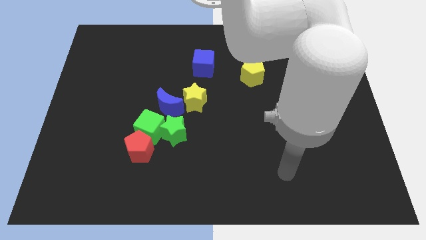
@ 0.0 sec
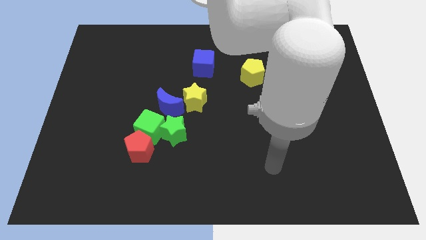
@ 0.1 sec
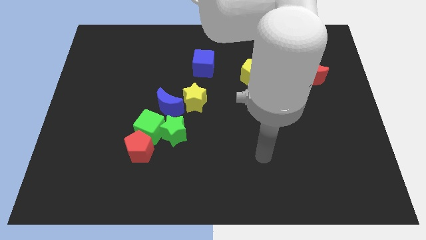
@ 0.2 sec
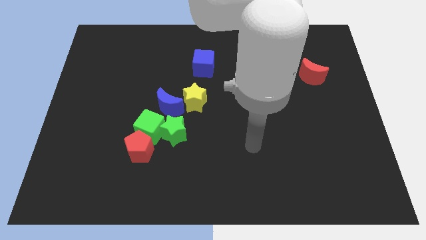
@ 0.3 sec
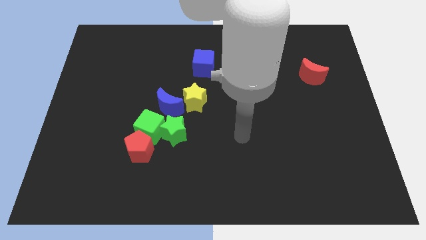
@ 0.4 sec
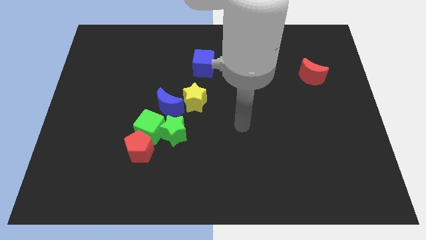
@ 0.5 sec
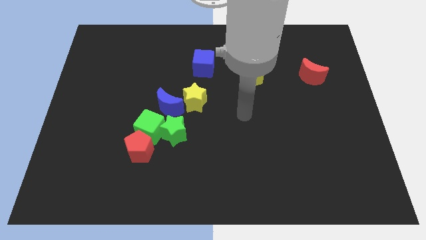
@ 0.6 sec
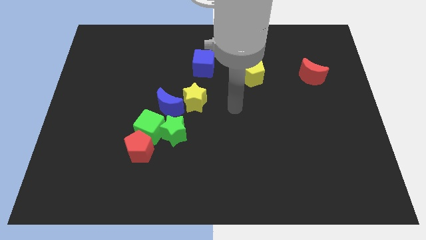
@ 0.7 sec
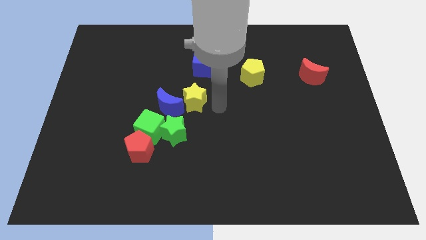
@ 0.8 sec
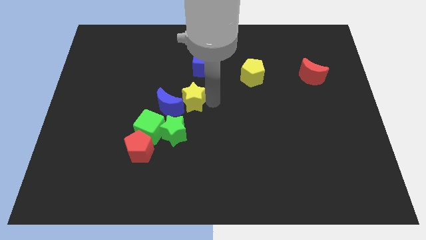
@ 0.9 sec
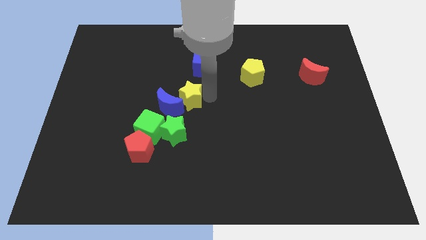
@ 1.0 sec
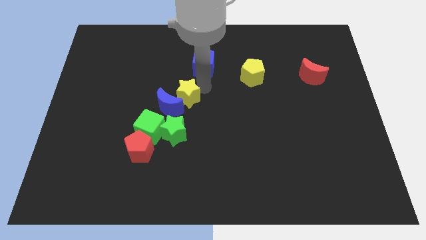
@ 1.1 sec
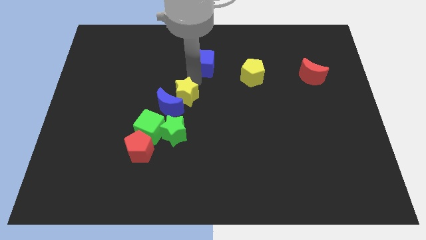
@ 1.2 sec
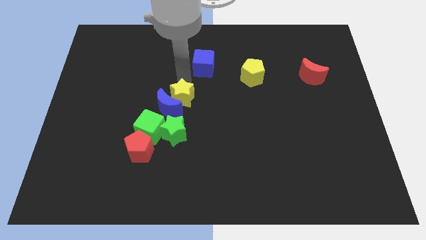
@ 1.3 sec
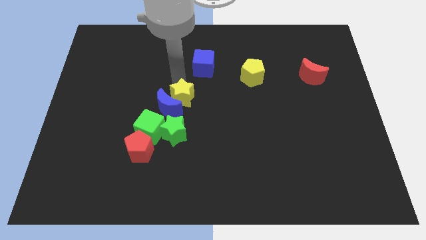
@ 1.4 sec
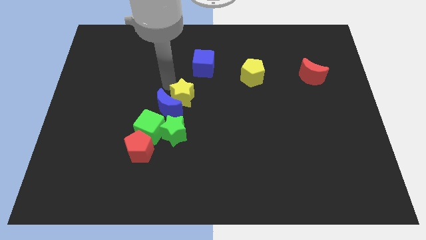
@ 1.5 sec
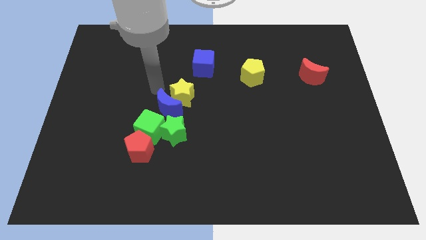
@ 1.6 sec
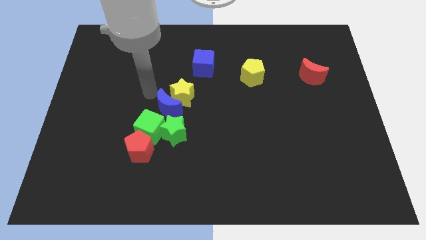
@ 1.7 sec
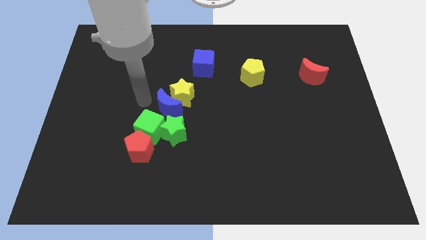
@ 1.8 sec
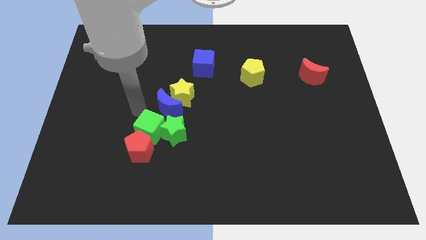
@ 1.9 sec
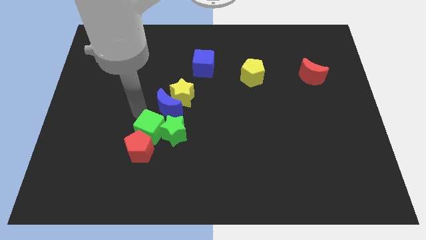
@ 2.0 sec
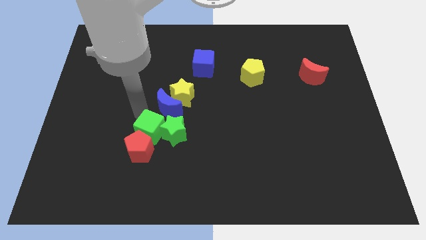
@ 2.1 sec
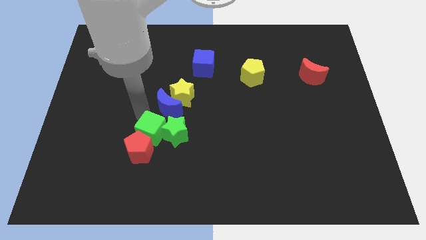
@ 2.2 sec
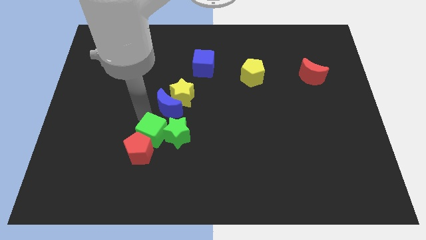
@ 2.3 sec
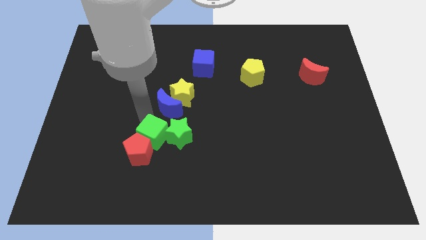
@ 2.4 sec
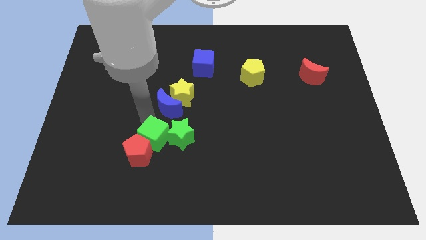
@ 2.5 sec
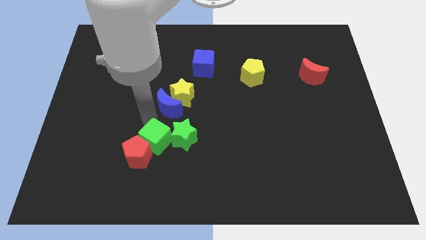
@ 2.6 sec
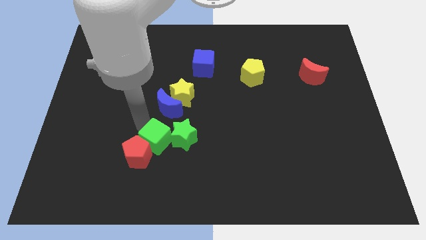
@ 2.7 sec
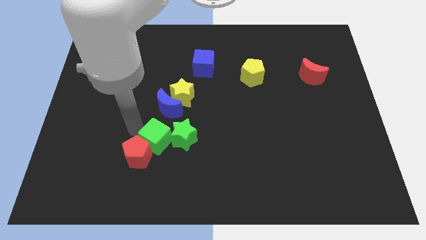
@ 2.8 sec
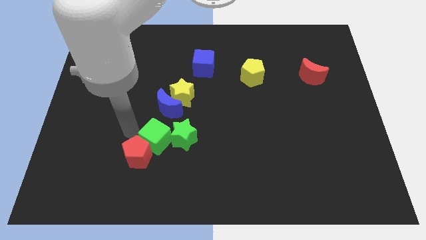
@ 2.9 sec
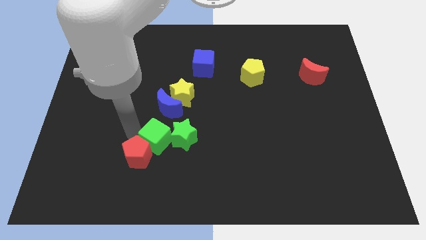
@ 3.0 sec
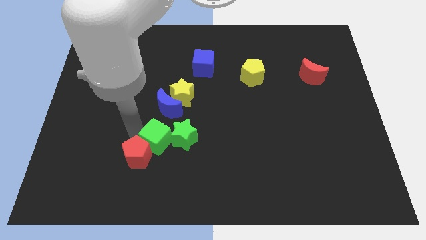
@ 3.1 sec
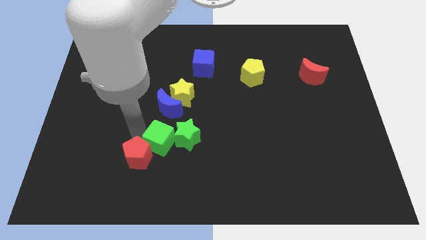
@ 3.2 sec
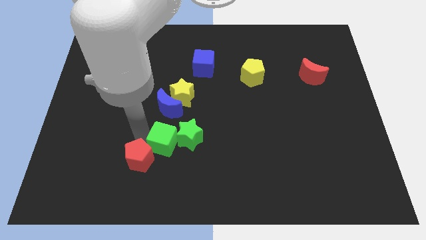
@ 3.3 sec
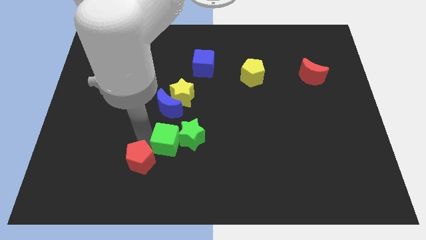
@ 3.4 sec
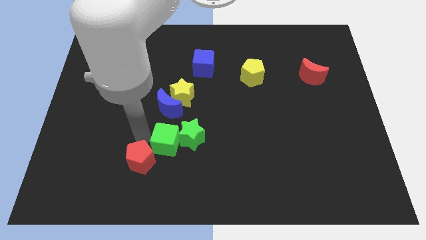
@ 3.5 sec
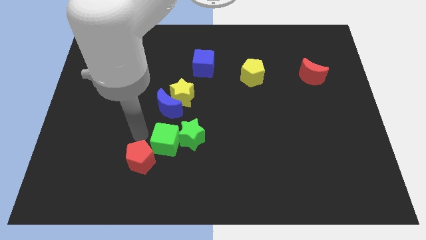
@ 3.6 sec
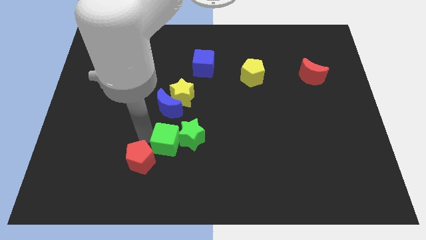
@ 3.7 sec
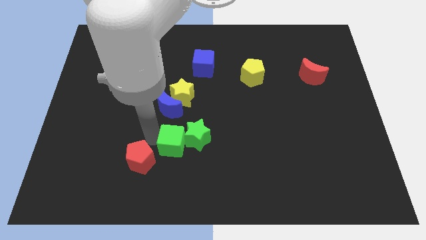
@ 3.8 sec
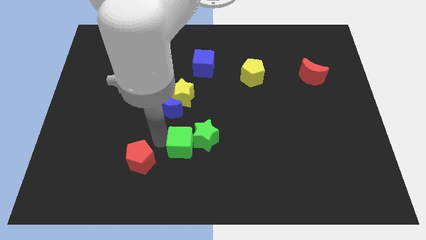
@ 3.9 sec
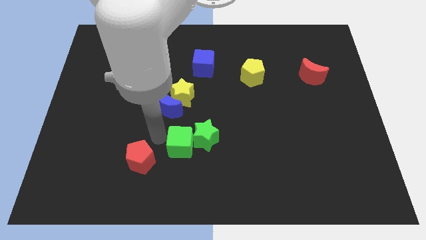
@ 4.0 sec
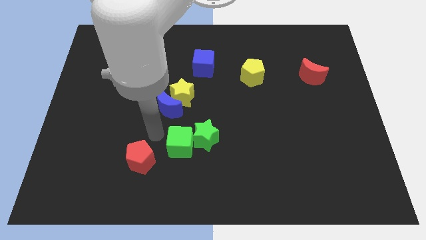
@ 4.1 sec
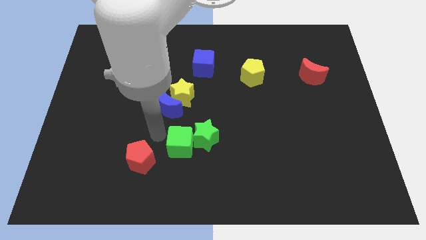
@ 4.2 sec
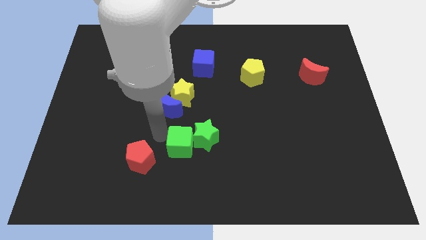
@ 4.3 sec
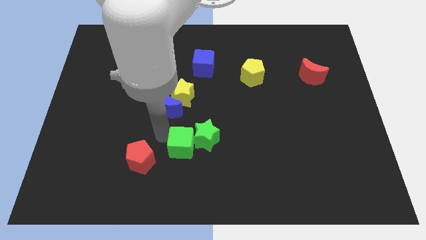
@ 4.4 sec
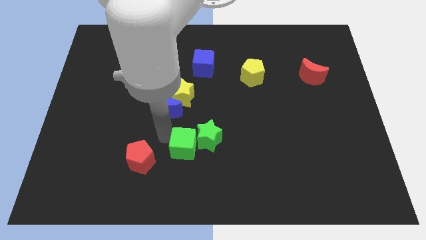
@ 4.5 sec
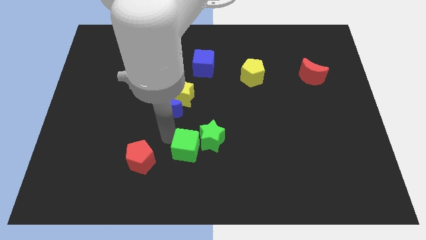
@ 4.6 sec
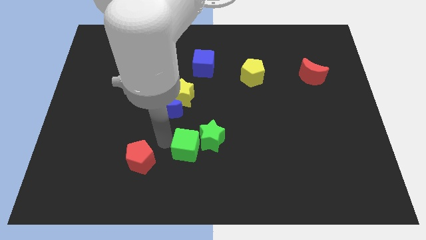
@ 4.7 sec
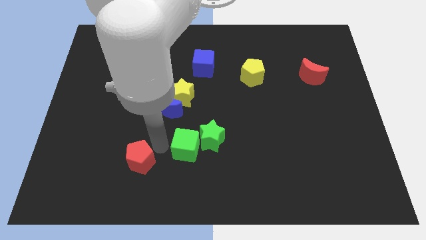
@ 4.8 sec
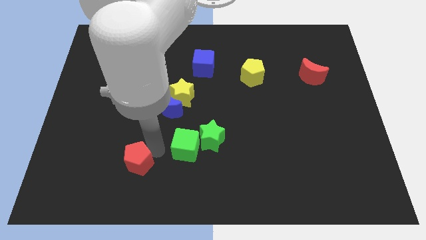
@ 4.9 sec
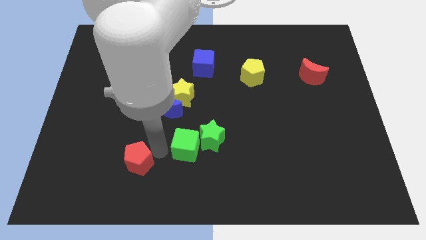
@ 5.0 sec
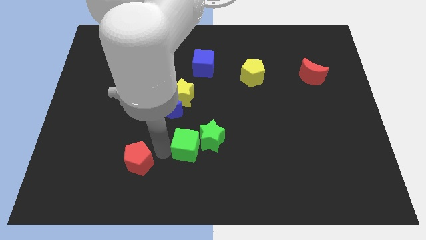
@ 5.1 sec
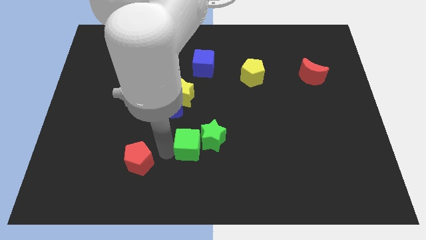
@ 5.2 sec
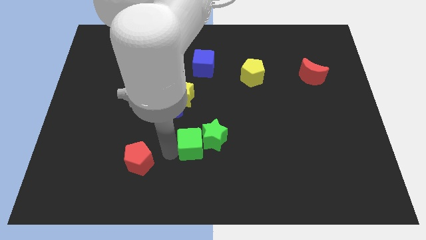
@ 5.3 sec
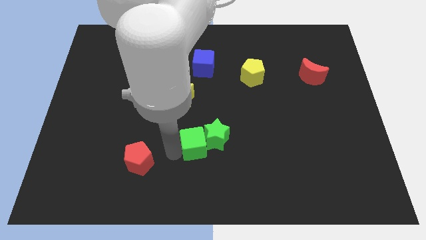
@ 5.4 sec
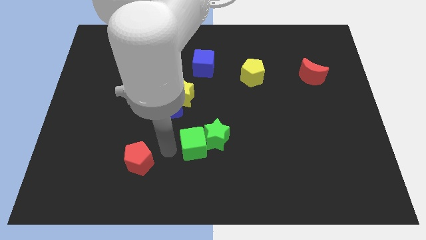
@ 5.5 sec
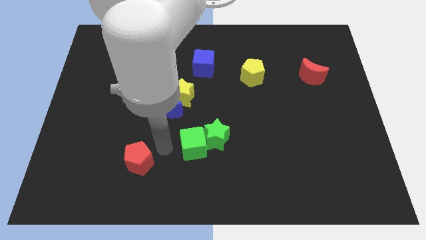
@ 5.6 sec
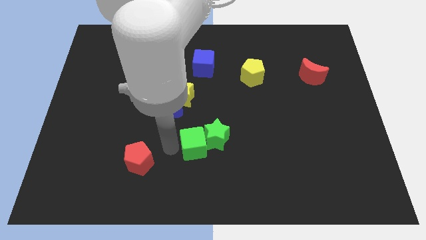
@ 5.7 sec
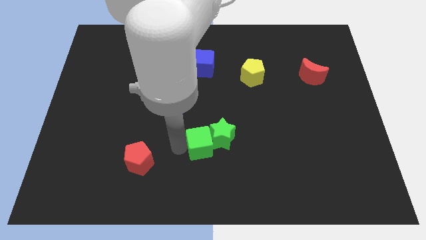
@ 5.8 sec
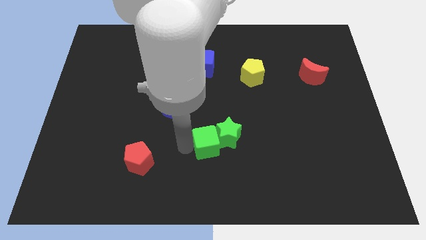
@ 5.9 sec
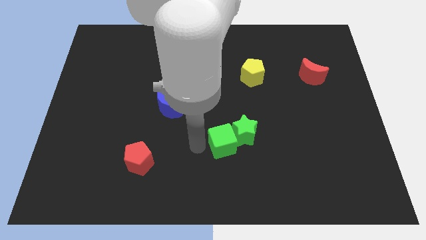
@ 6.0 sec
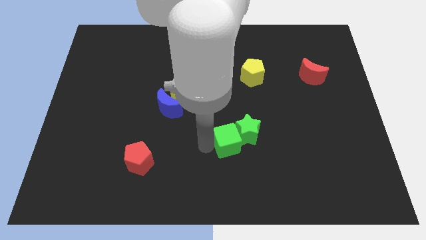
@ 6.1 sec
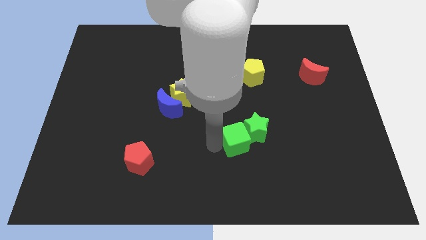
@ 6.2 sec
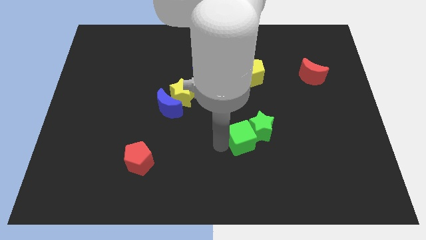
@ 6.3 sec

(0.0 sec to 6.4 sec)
push the green cube right

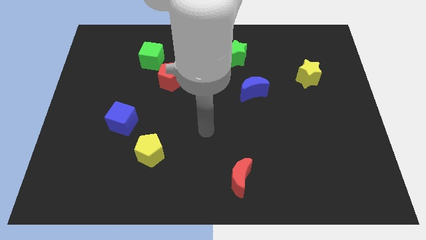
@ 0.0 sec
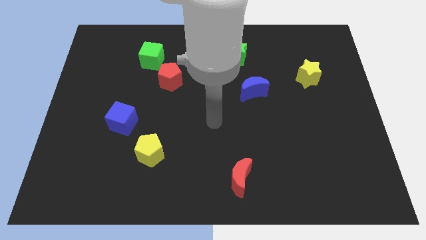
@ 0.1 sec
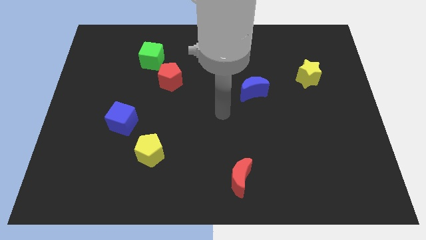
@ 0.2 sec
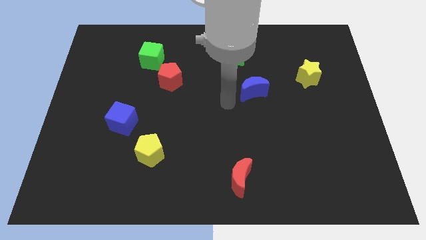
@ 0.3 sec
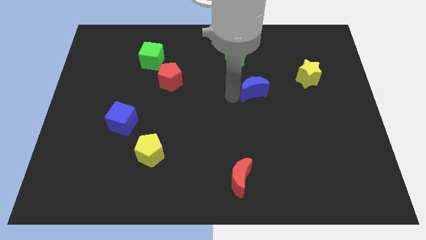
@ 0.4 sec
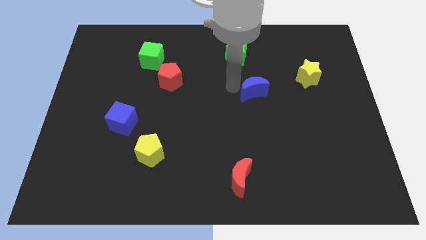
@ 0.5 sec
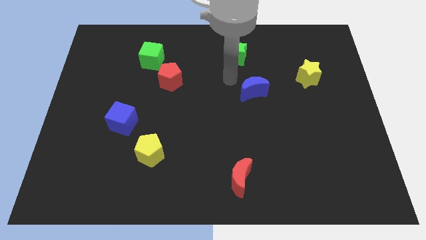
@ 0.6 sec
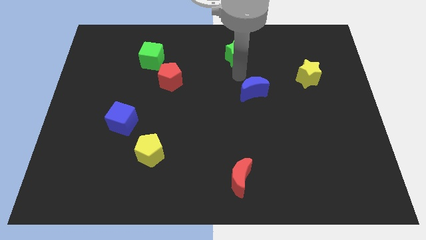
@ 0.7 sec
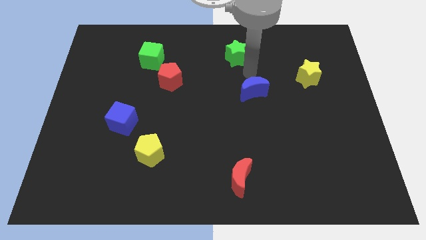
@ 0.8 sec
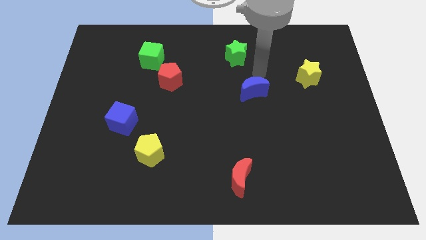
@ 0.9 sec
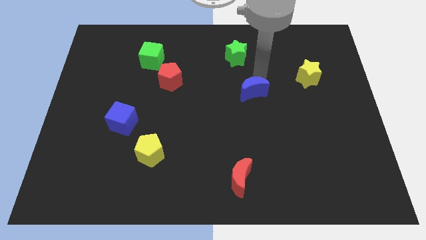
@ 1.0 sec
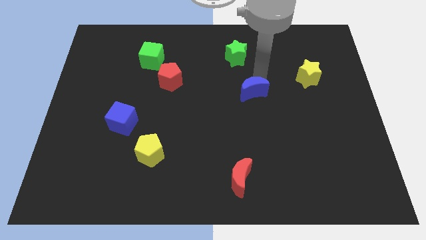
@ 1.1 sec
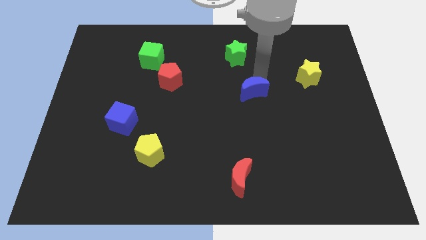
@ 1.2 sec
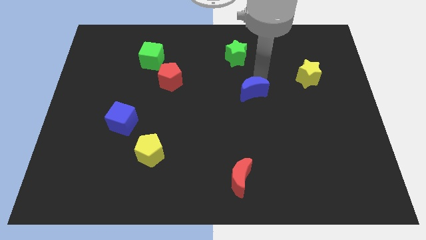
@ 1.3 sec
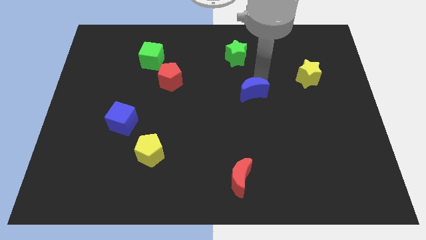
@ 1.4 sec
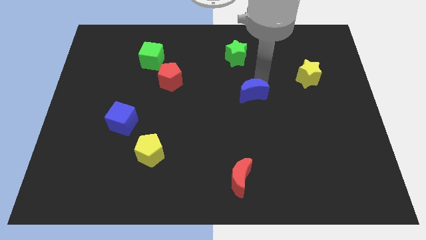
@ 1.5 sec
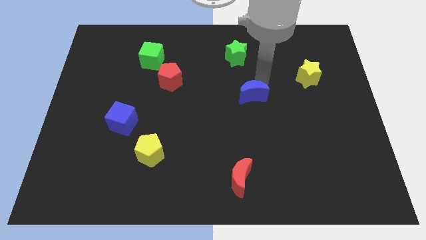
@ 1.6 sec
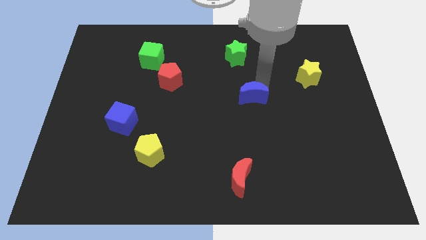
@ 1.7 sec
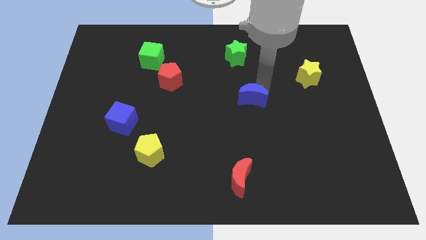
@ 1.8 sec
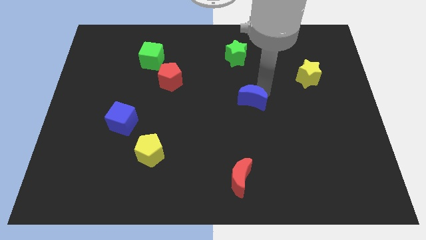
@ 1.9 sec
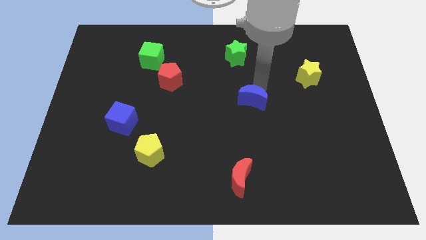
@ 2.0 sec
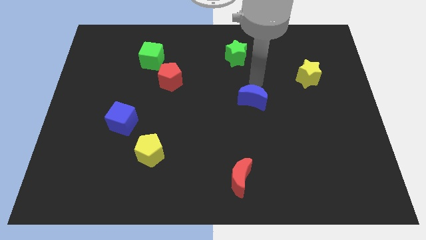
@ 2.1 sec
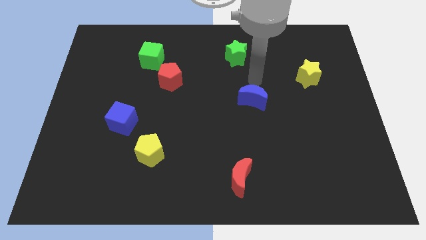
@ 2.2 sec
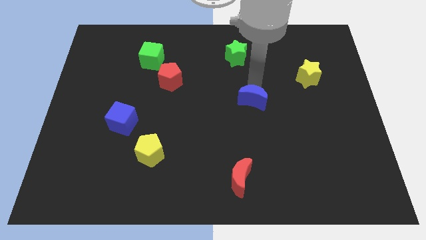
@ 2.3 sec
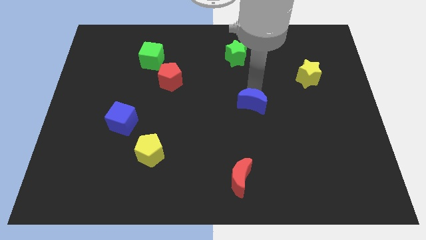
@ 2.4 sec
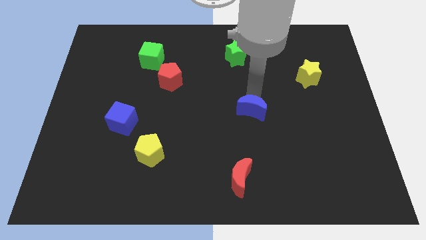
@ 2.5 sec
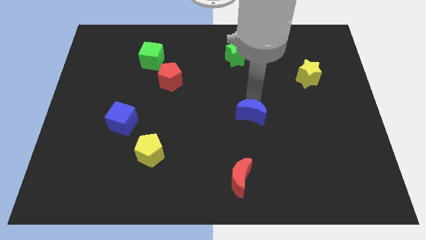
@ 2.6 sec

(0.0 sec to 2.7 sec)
slide the blue moon a little downwards
